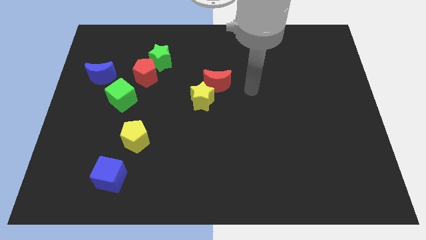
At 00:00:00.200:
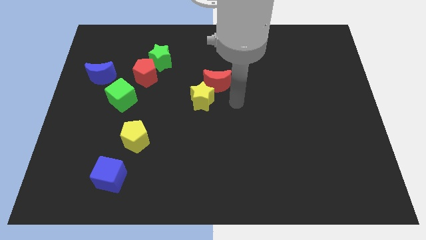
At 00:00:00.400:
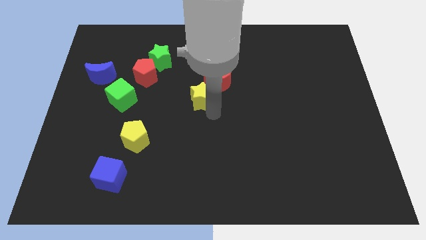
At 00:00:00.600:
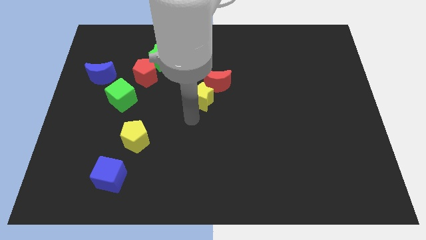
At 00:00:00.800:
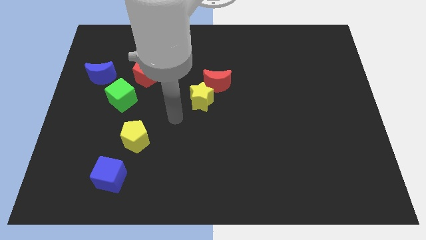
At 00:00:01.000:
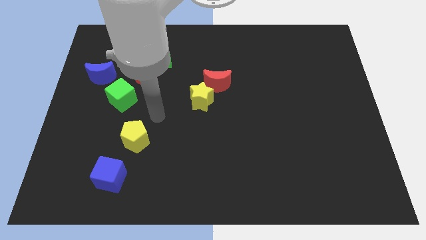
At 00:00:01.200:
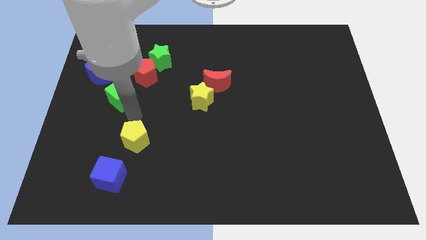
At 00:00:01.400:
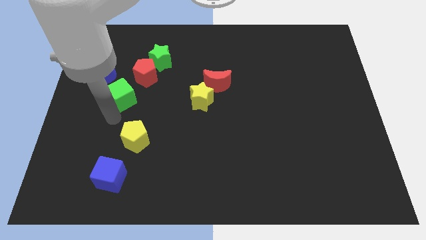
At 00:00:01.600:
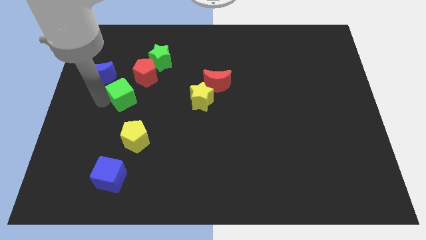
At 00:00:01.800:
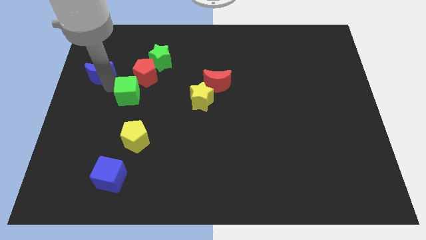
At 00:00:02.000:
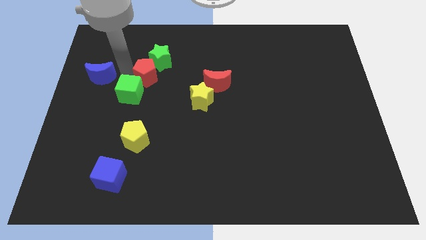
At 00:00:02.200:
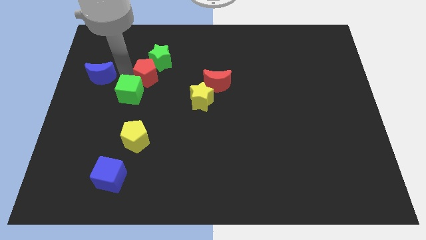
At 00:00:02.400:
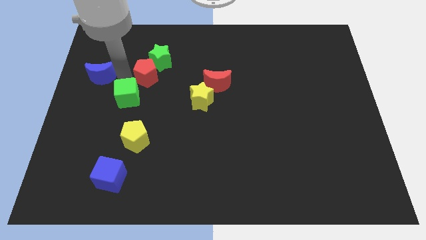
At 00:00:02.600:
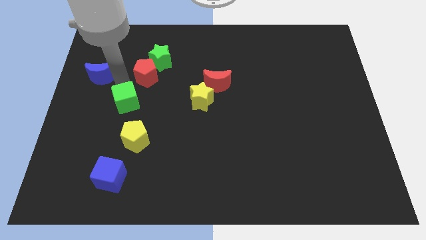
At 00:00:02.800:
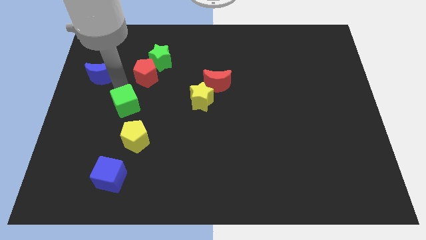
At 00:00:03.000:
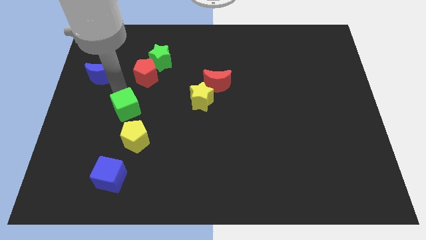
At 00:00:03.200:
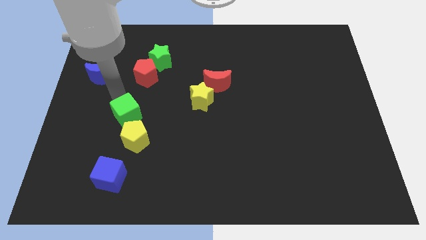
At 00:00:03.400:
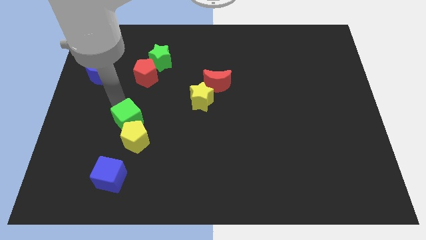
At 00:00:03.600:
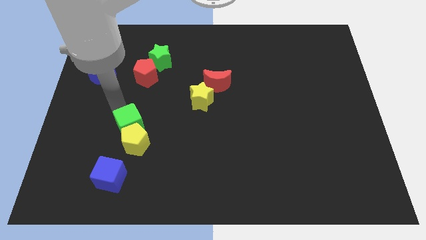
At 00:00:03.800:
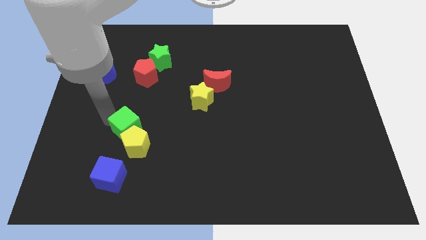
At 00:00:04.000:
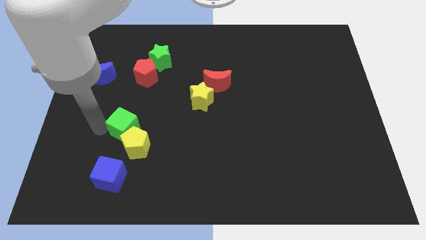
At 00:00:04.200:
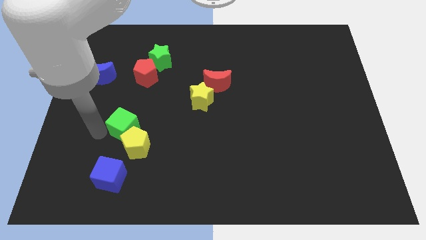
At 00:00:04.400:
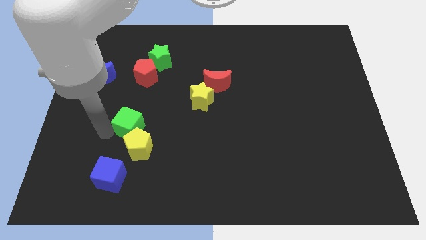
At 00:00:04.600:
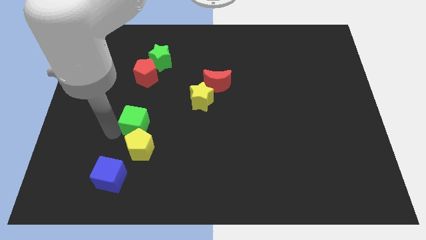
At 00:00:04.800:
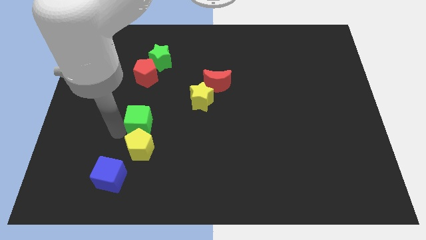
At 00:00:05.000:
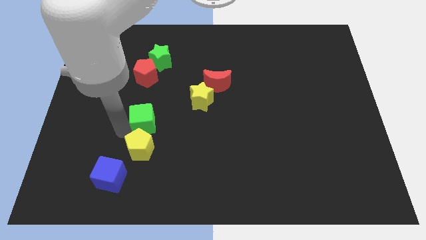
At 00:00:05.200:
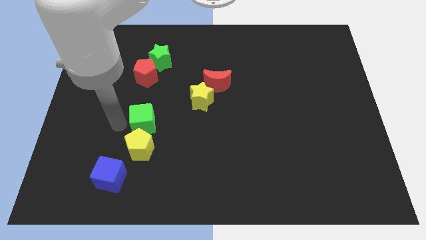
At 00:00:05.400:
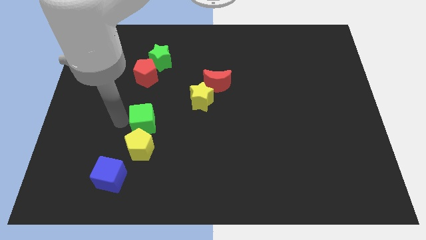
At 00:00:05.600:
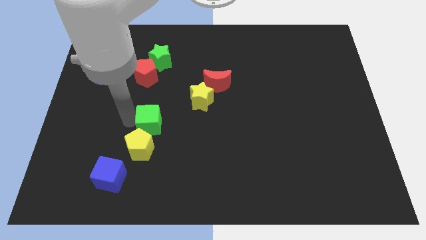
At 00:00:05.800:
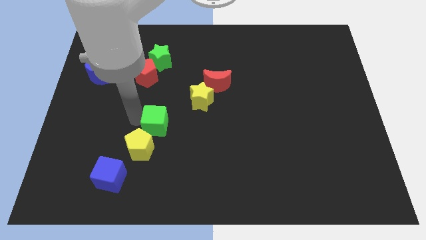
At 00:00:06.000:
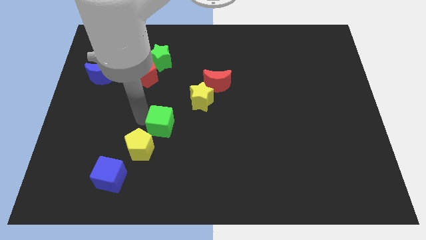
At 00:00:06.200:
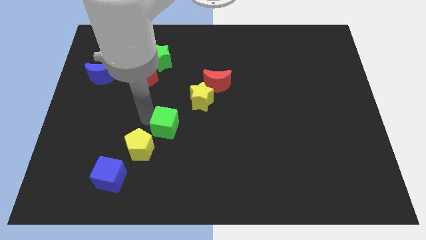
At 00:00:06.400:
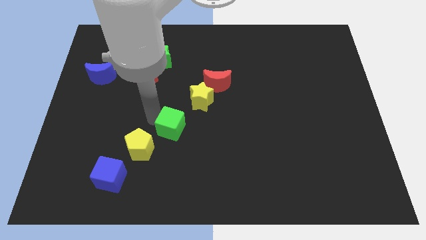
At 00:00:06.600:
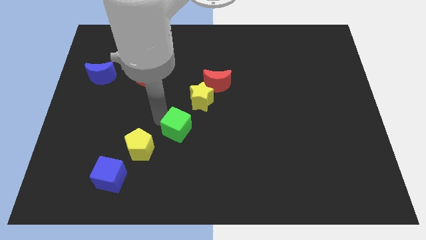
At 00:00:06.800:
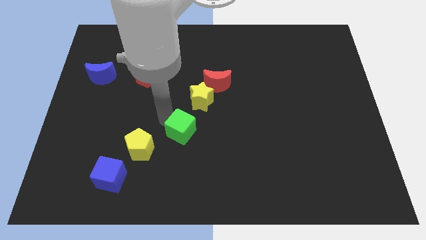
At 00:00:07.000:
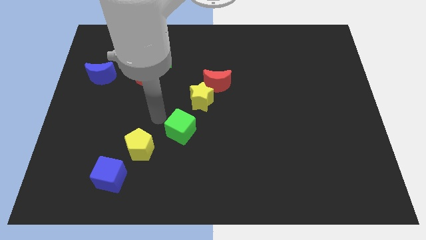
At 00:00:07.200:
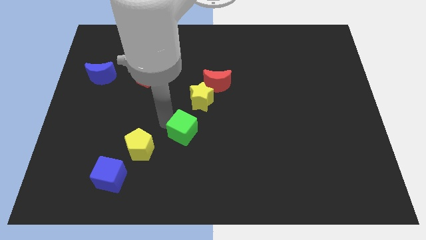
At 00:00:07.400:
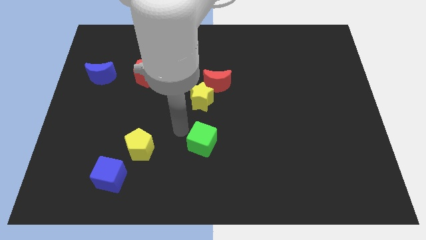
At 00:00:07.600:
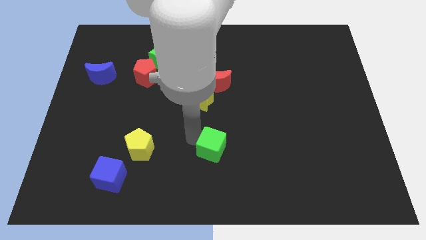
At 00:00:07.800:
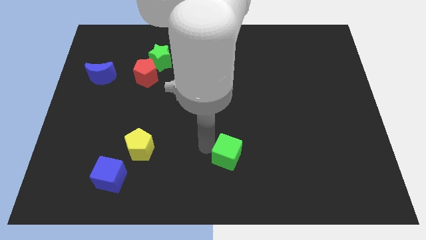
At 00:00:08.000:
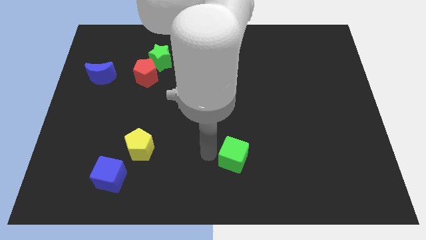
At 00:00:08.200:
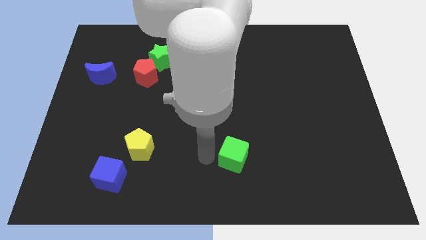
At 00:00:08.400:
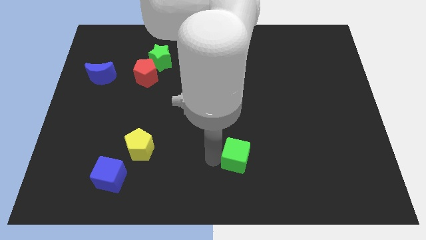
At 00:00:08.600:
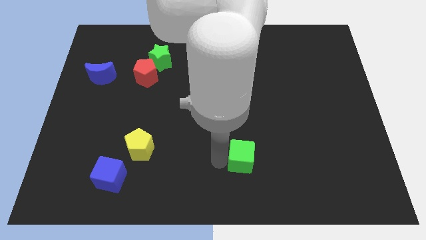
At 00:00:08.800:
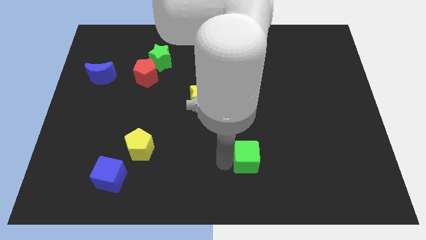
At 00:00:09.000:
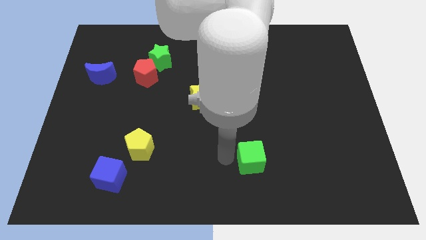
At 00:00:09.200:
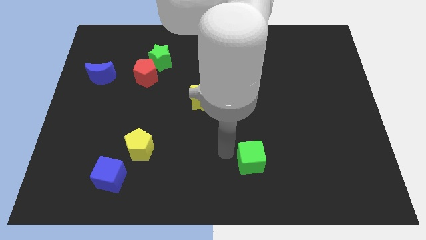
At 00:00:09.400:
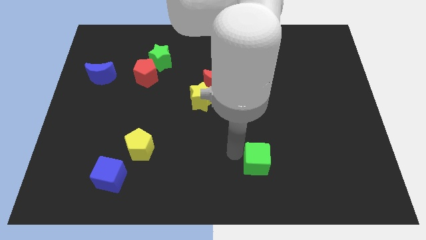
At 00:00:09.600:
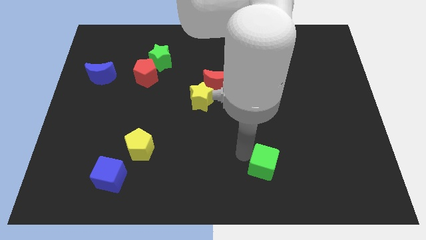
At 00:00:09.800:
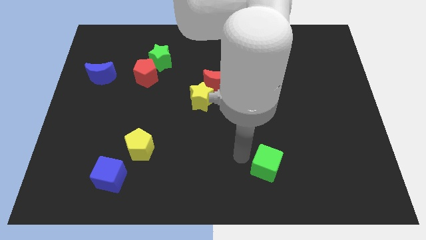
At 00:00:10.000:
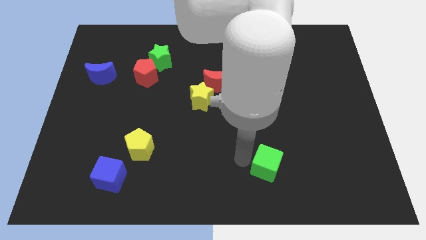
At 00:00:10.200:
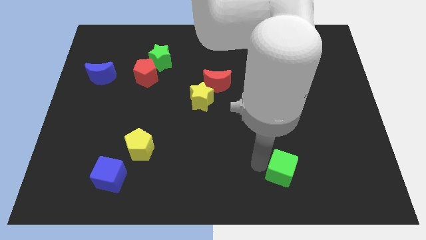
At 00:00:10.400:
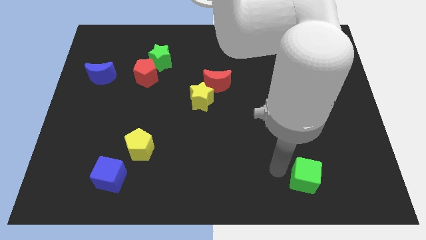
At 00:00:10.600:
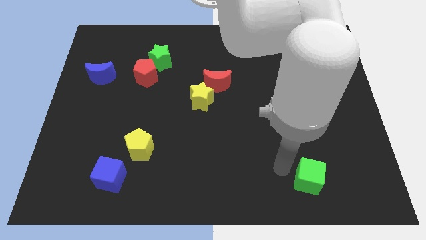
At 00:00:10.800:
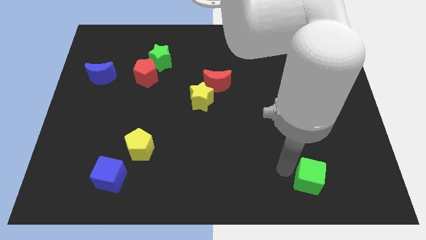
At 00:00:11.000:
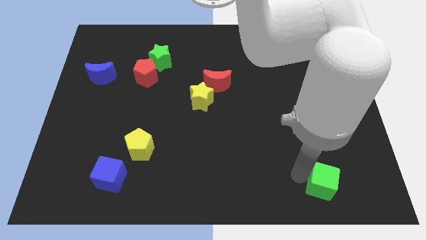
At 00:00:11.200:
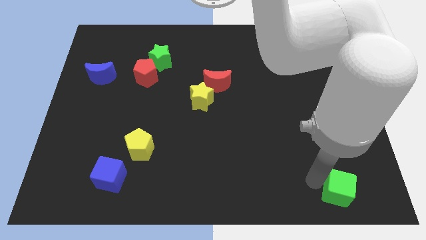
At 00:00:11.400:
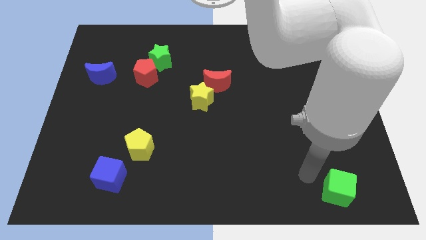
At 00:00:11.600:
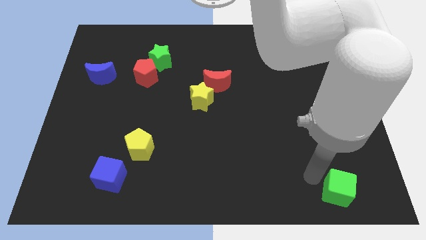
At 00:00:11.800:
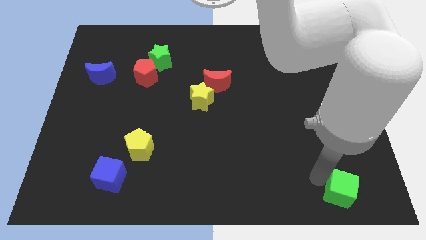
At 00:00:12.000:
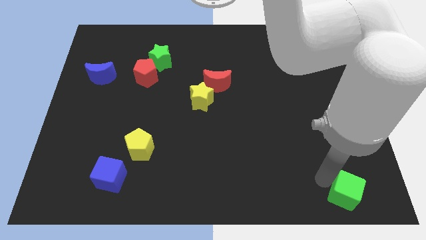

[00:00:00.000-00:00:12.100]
push the green cube to the lower right corner
